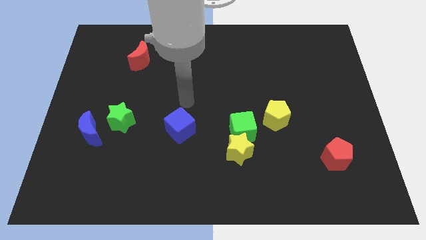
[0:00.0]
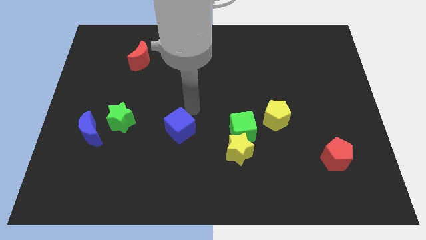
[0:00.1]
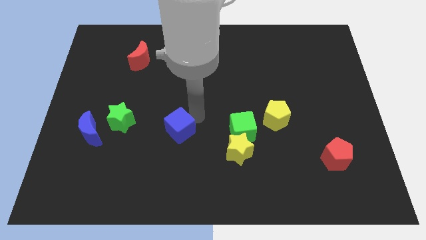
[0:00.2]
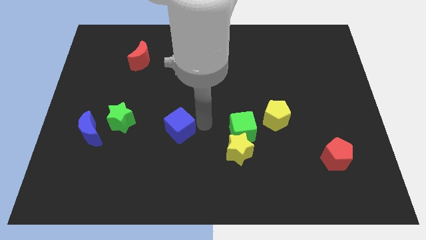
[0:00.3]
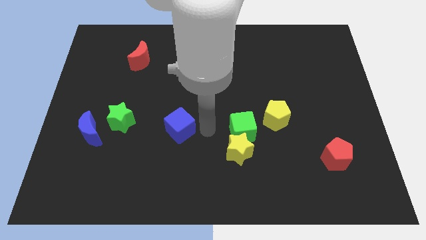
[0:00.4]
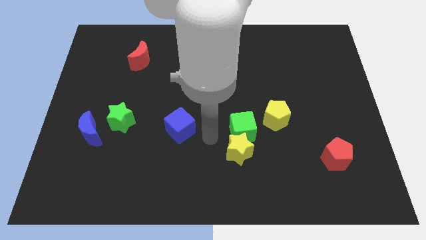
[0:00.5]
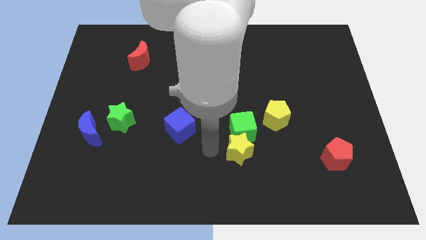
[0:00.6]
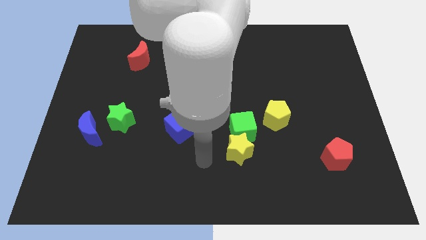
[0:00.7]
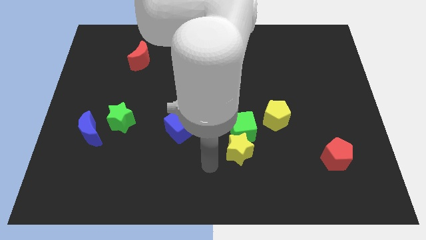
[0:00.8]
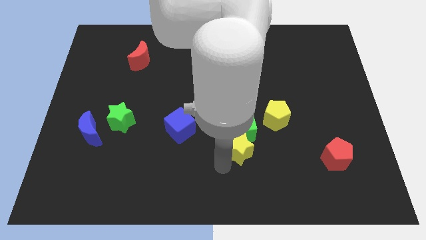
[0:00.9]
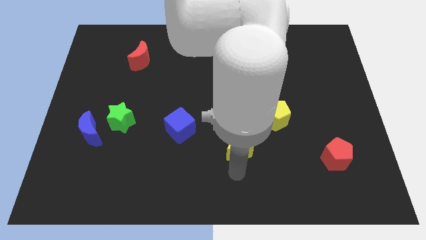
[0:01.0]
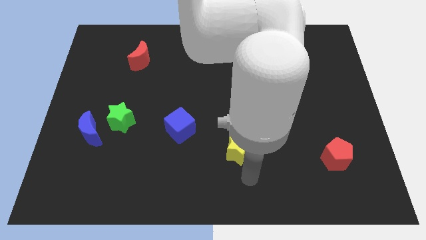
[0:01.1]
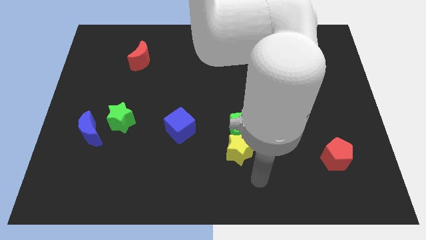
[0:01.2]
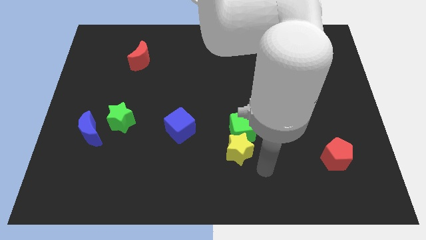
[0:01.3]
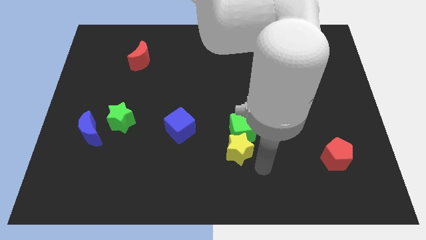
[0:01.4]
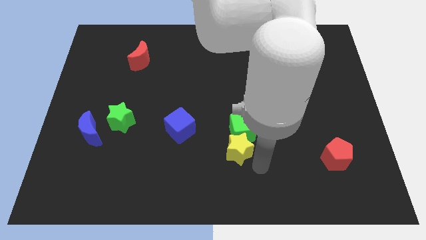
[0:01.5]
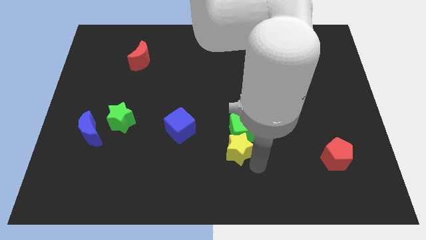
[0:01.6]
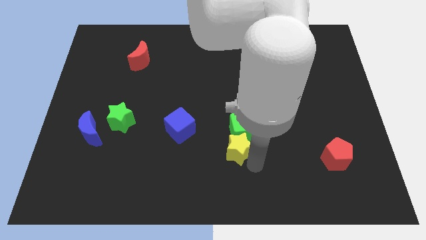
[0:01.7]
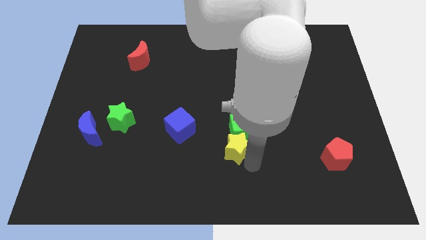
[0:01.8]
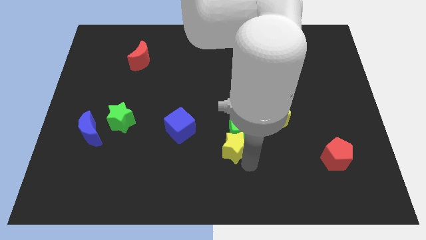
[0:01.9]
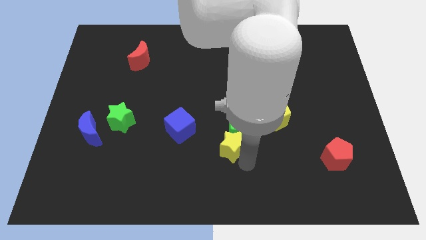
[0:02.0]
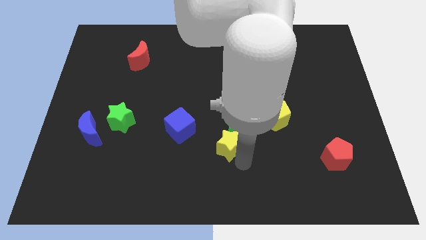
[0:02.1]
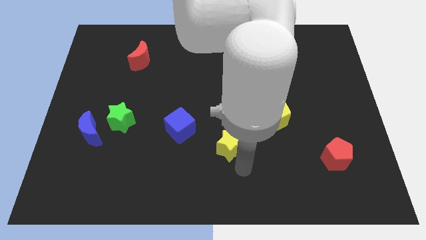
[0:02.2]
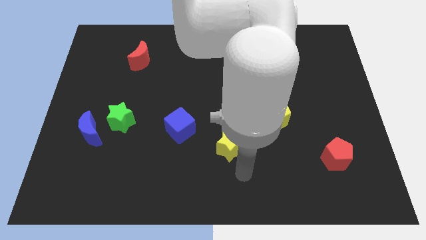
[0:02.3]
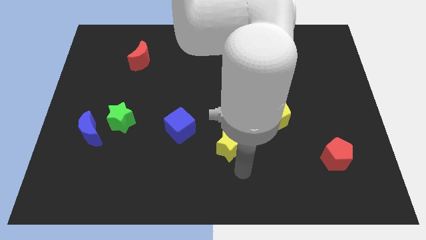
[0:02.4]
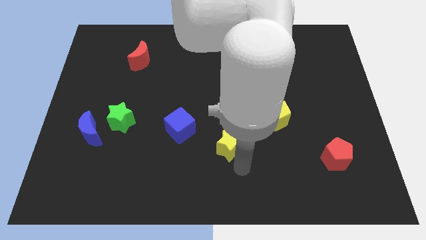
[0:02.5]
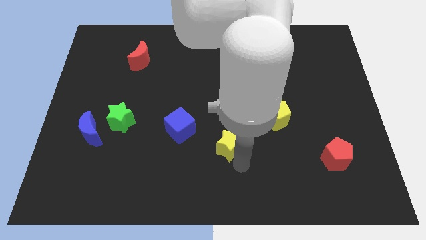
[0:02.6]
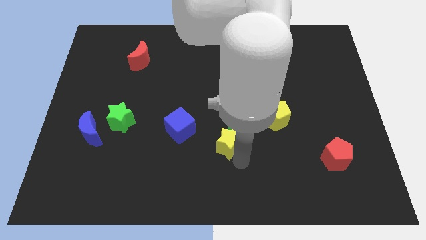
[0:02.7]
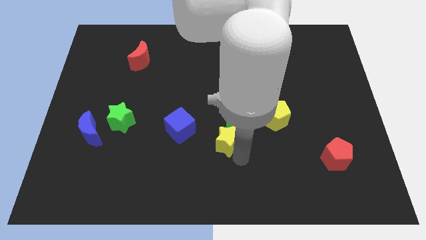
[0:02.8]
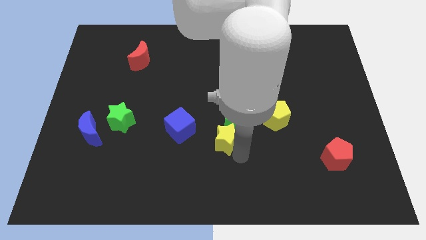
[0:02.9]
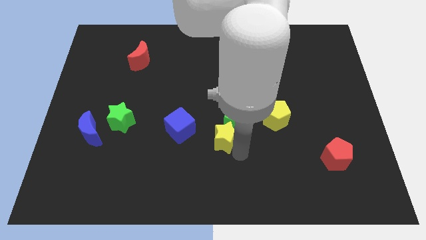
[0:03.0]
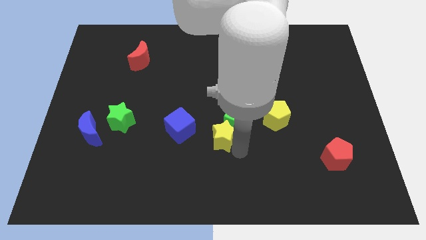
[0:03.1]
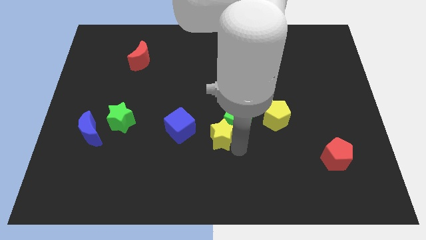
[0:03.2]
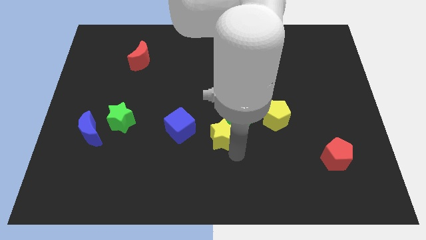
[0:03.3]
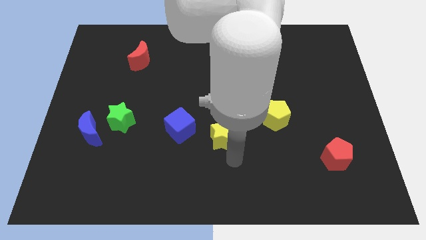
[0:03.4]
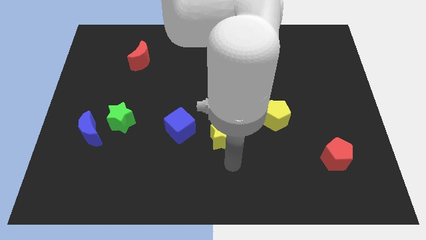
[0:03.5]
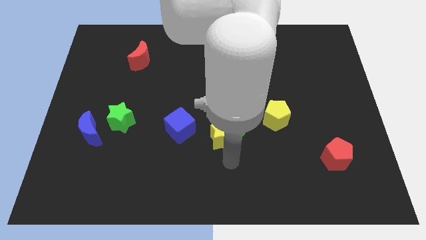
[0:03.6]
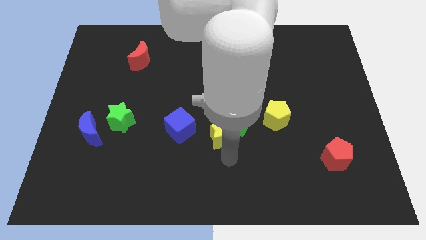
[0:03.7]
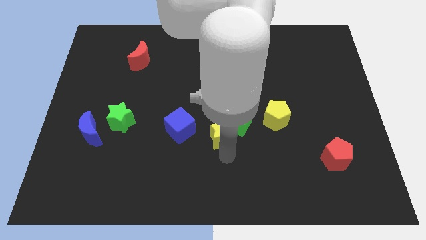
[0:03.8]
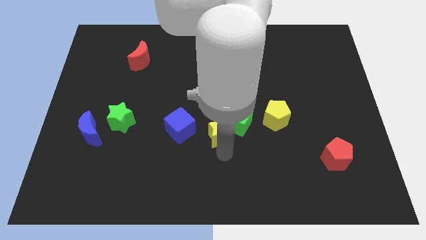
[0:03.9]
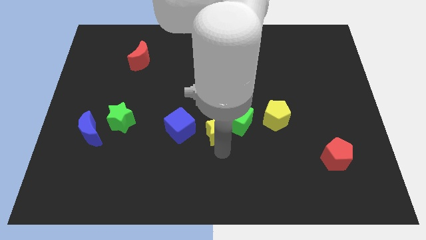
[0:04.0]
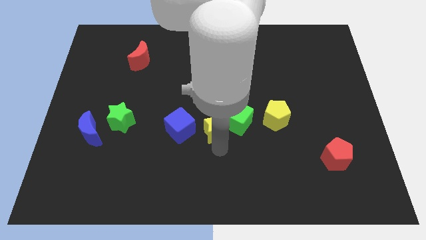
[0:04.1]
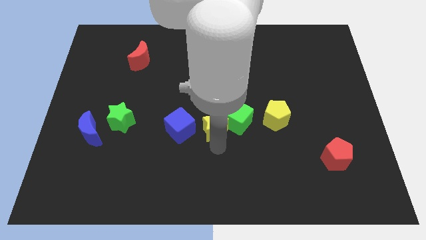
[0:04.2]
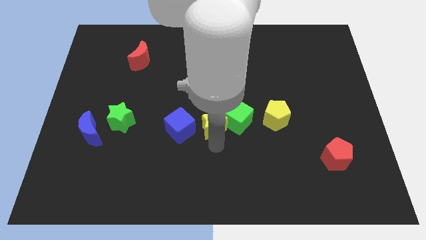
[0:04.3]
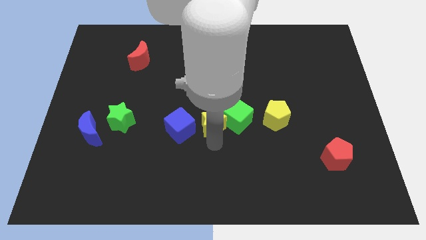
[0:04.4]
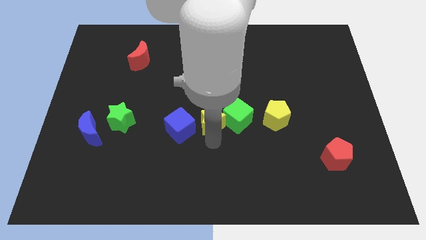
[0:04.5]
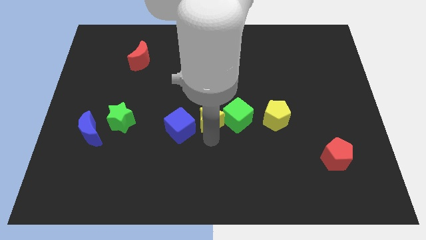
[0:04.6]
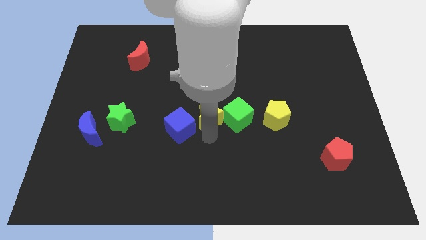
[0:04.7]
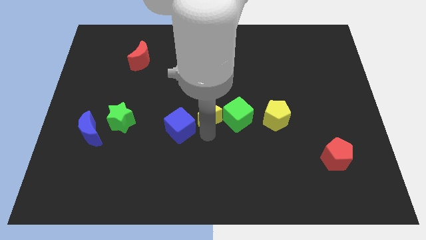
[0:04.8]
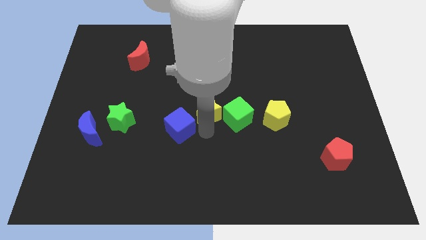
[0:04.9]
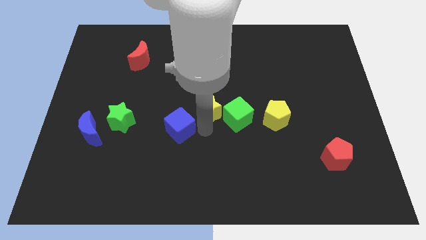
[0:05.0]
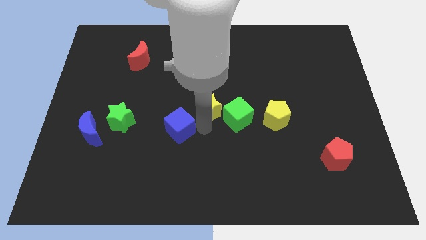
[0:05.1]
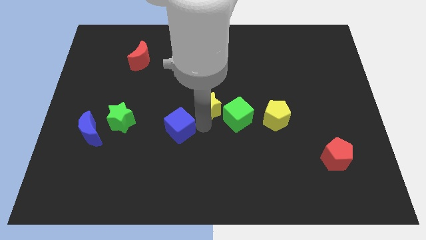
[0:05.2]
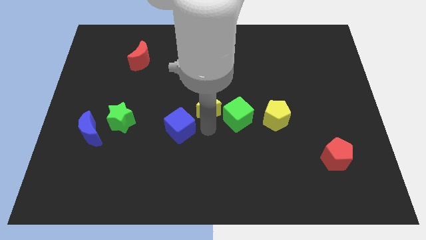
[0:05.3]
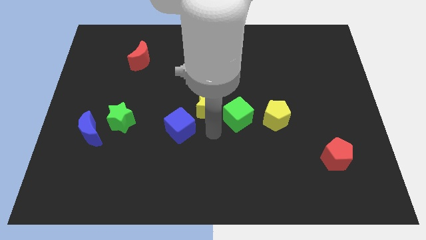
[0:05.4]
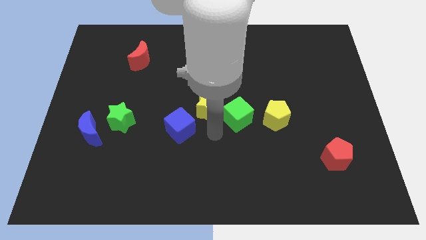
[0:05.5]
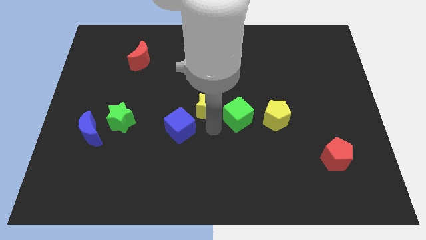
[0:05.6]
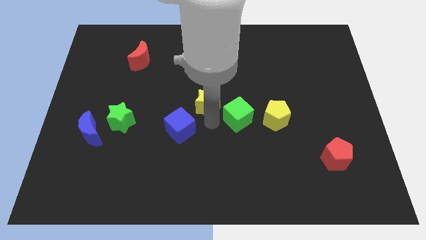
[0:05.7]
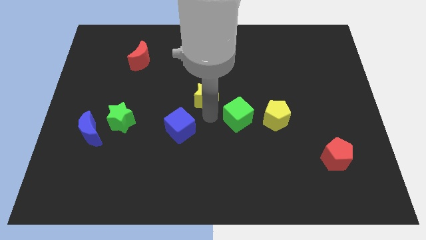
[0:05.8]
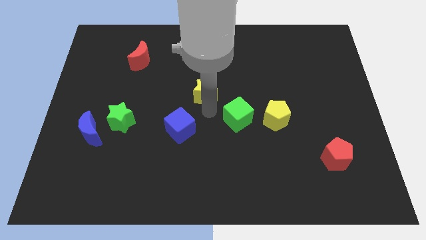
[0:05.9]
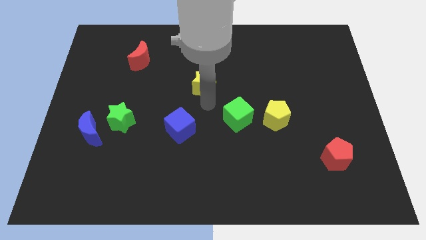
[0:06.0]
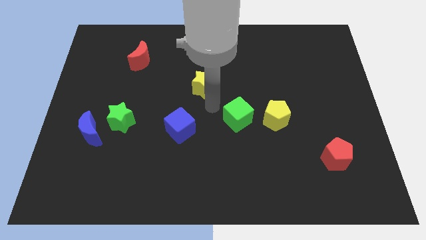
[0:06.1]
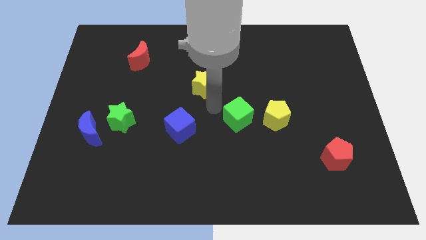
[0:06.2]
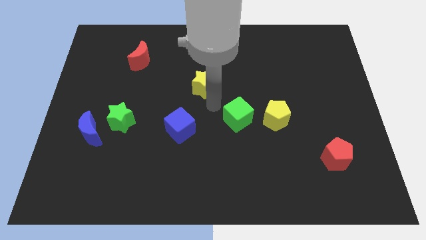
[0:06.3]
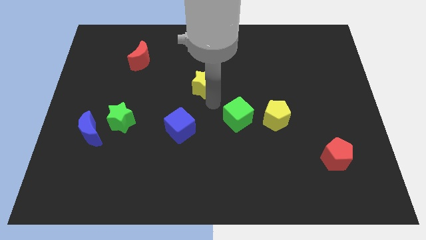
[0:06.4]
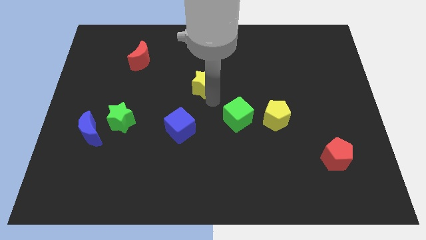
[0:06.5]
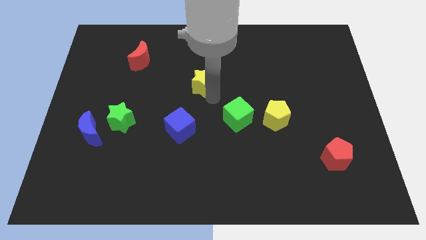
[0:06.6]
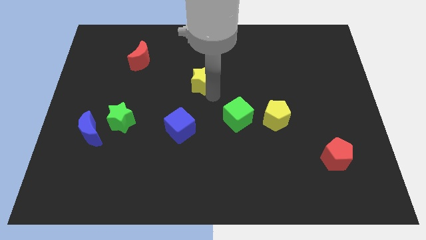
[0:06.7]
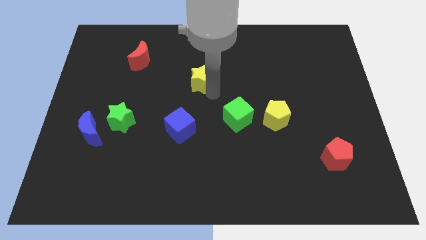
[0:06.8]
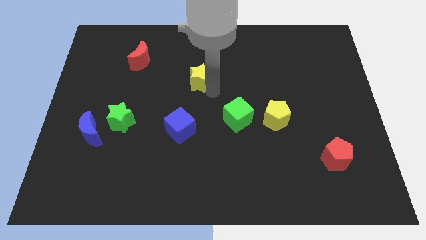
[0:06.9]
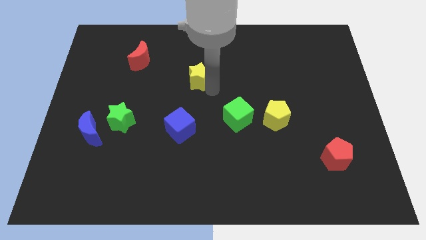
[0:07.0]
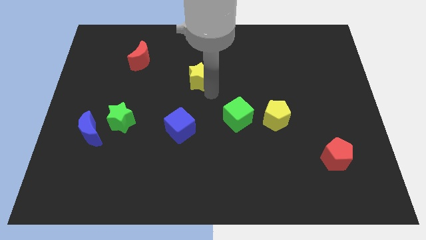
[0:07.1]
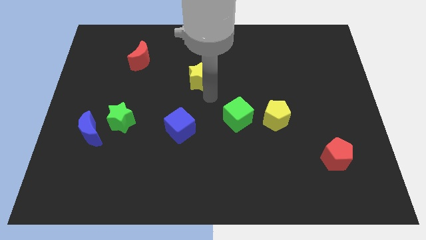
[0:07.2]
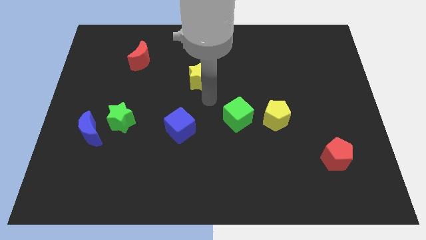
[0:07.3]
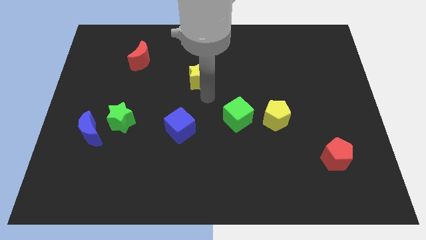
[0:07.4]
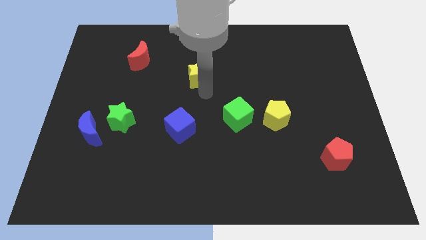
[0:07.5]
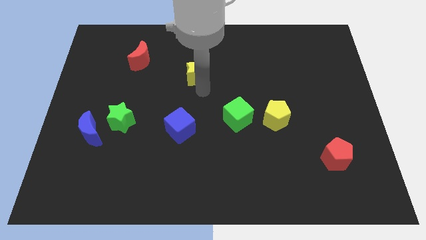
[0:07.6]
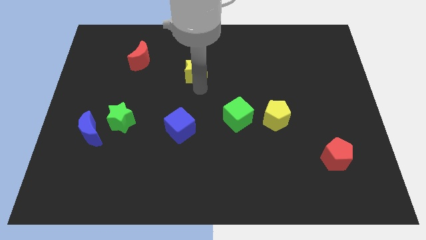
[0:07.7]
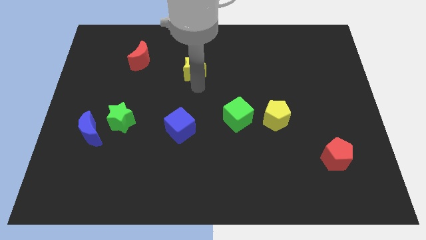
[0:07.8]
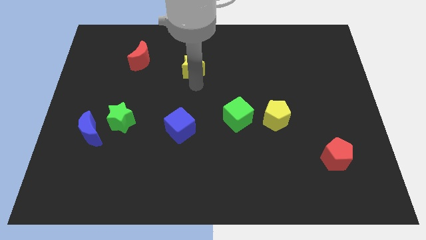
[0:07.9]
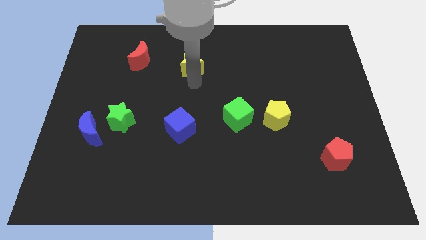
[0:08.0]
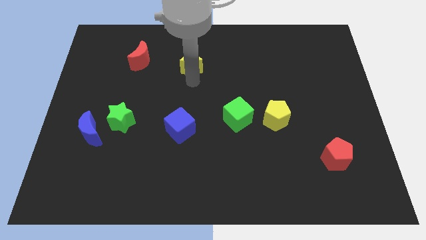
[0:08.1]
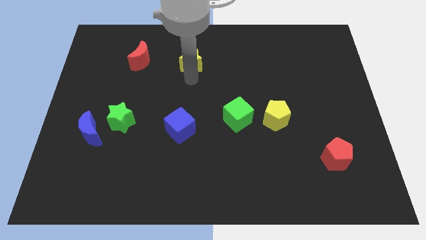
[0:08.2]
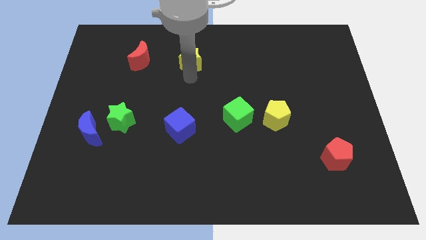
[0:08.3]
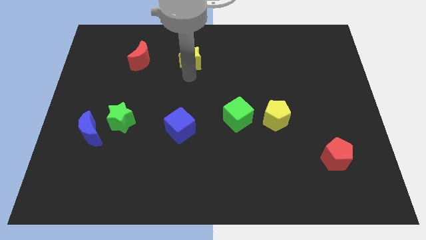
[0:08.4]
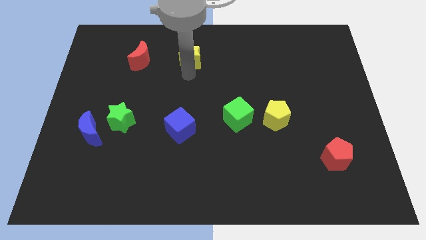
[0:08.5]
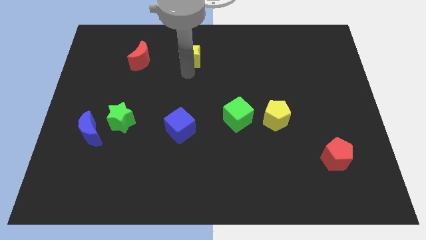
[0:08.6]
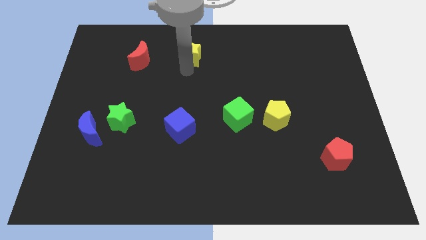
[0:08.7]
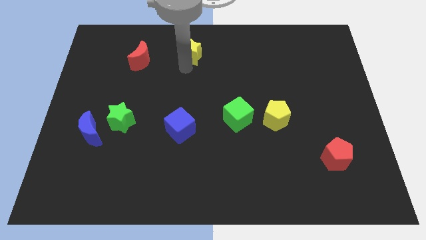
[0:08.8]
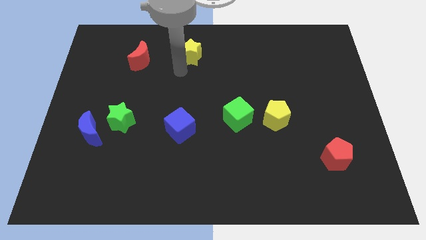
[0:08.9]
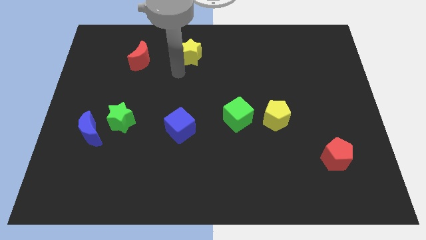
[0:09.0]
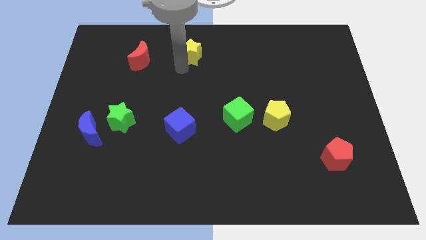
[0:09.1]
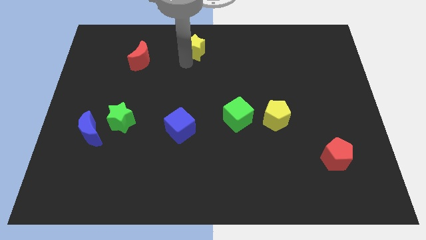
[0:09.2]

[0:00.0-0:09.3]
put the yellow star to the top
